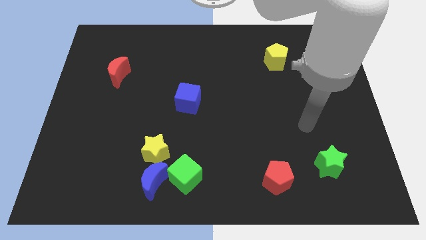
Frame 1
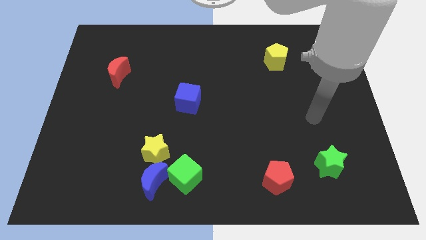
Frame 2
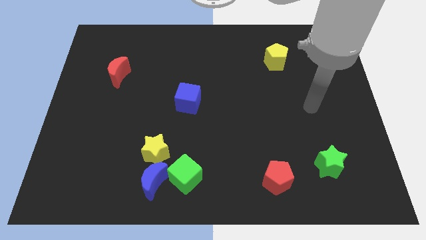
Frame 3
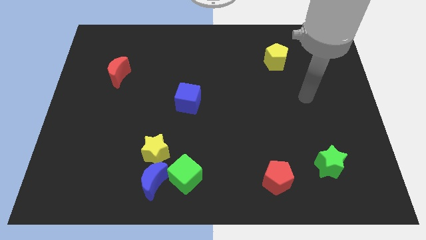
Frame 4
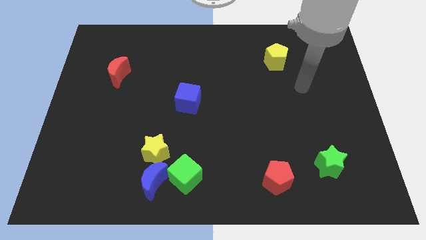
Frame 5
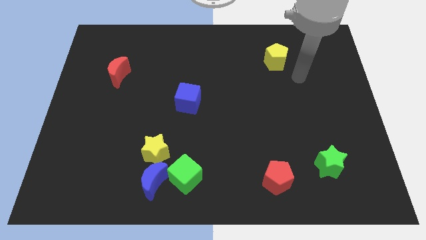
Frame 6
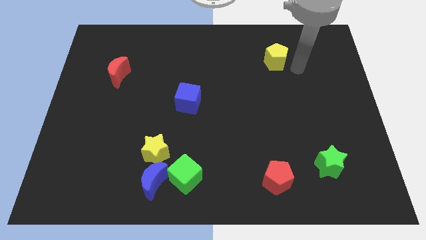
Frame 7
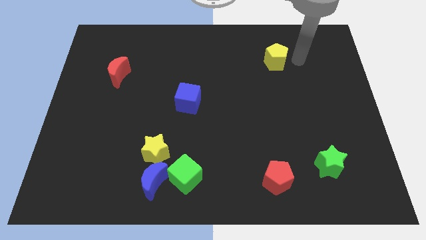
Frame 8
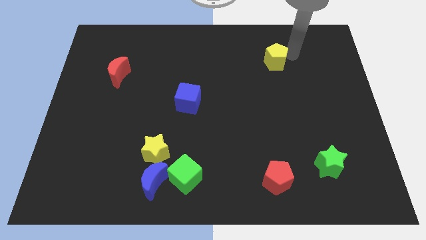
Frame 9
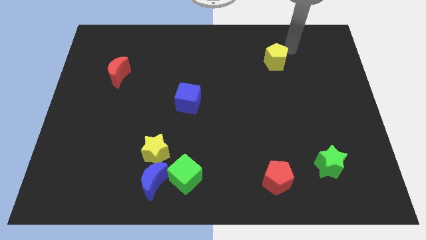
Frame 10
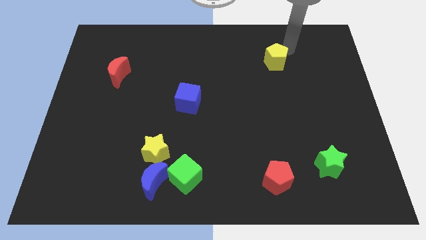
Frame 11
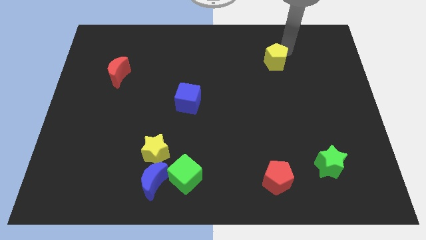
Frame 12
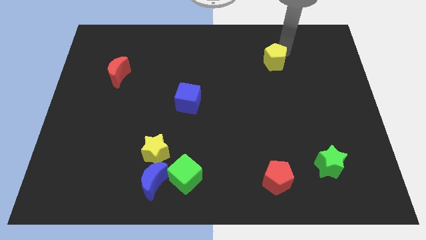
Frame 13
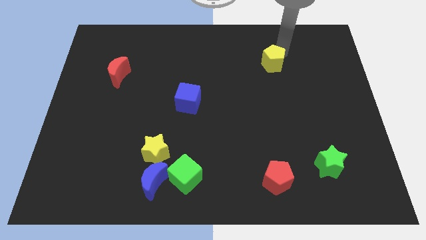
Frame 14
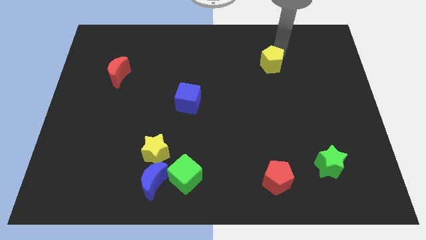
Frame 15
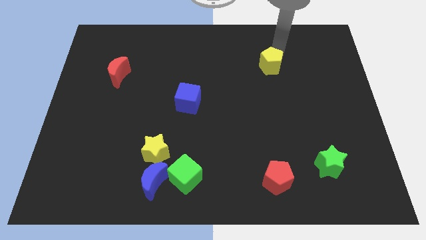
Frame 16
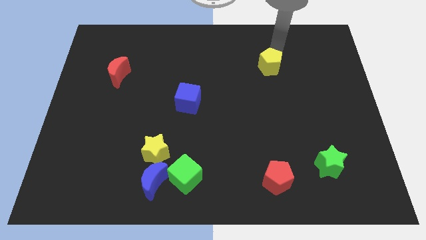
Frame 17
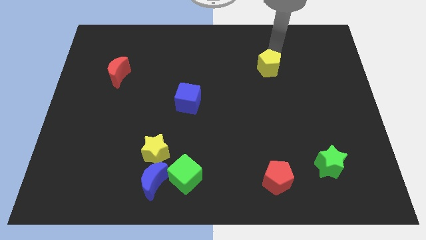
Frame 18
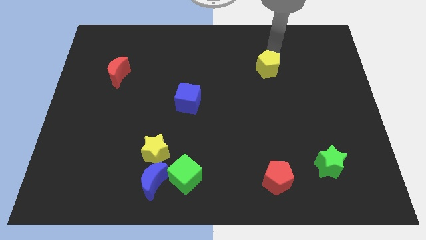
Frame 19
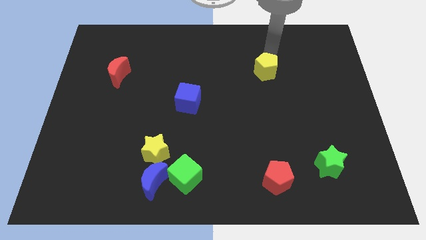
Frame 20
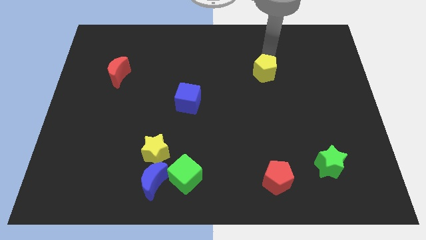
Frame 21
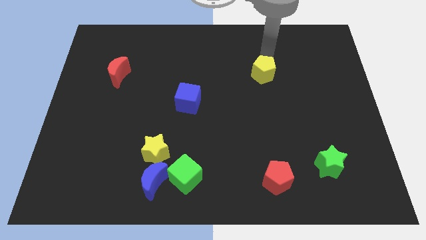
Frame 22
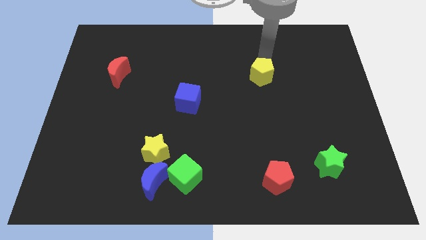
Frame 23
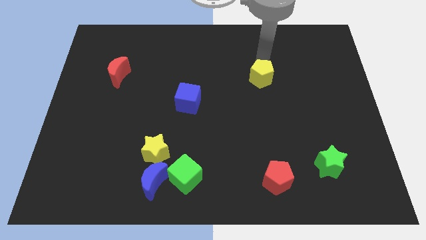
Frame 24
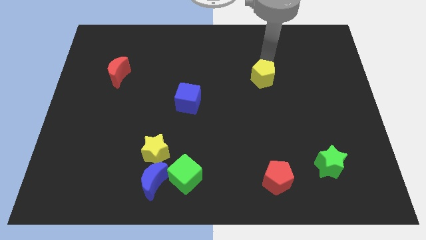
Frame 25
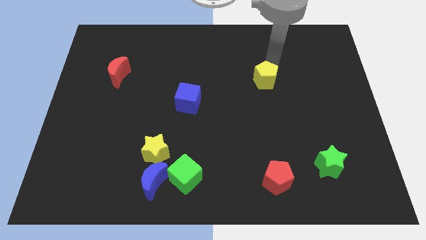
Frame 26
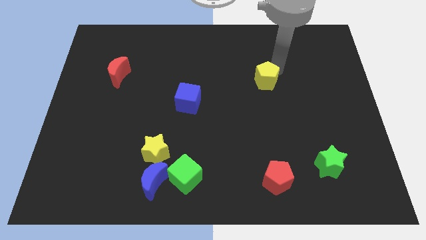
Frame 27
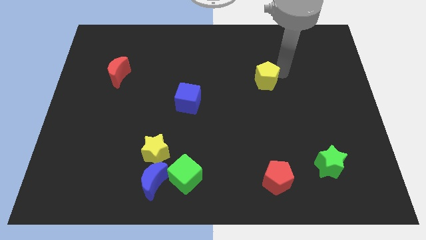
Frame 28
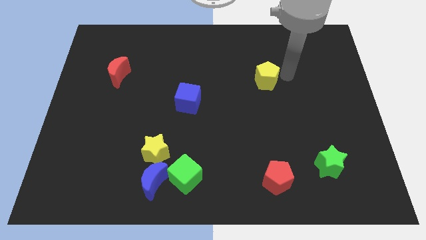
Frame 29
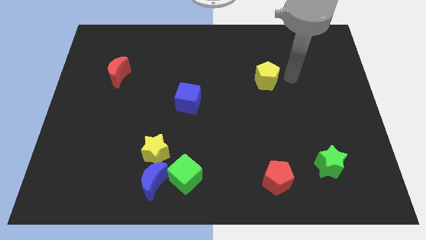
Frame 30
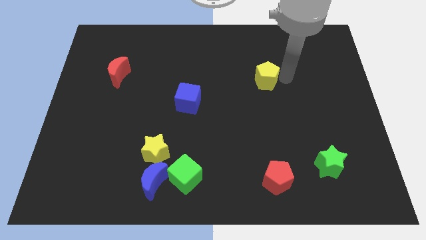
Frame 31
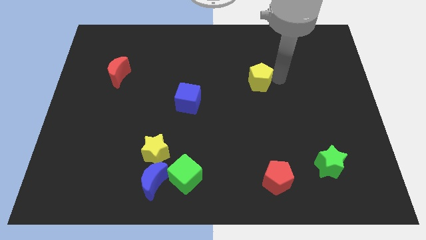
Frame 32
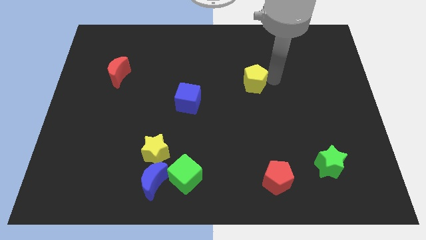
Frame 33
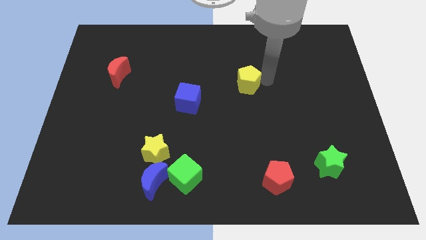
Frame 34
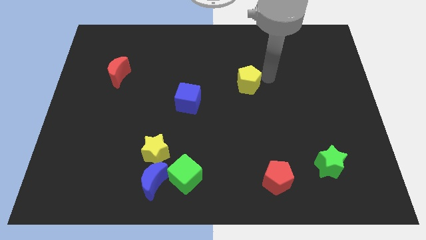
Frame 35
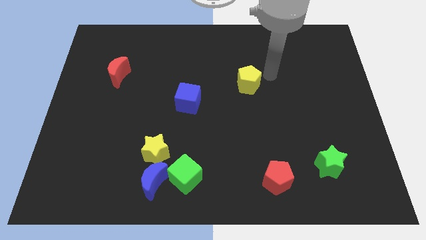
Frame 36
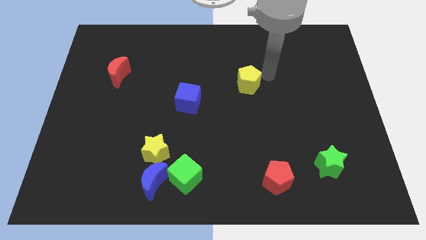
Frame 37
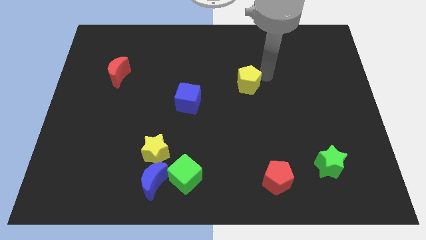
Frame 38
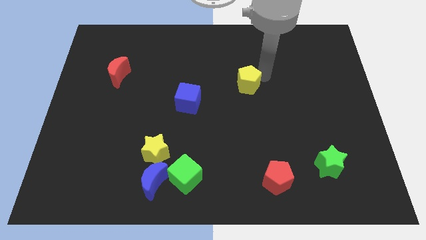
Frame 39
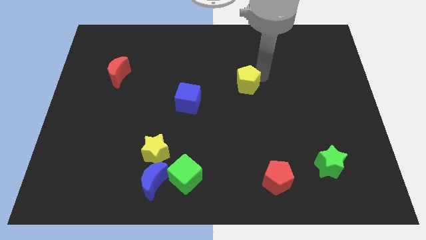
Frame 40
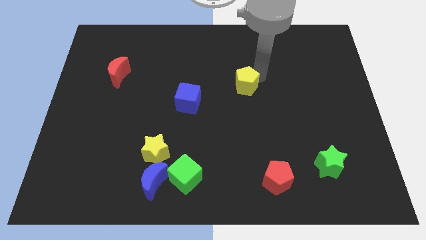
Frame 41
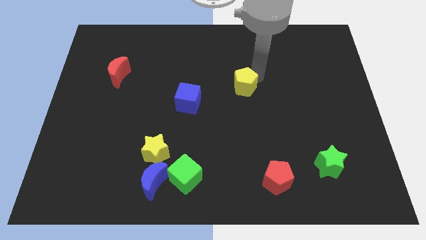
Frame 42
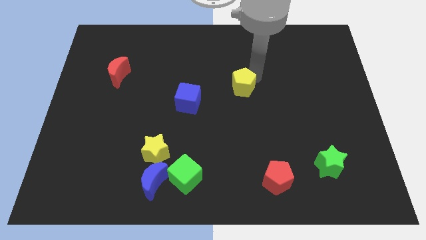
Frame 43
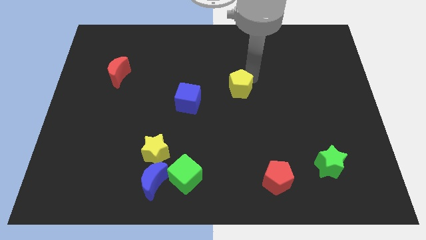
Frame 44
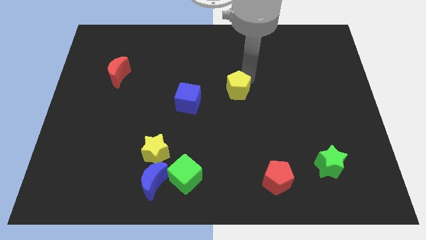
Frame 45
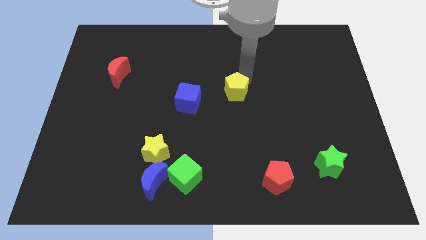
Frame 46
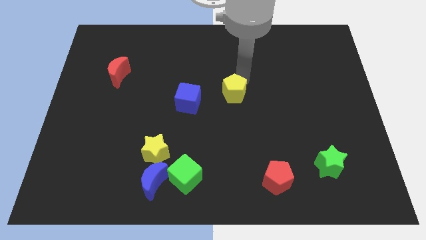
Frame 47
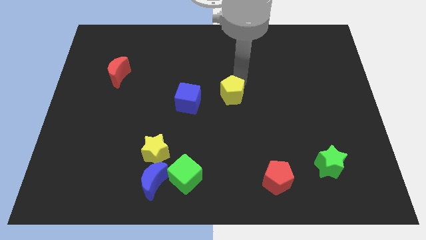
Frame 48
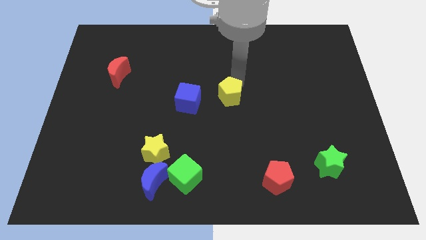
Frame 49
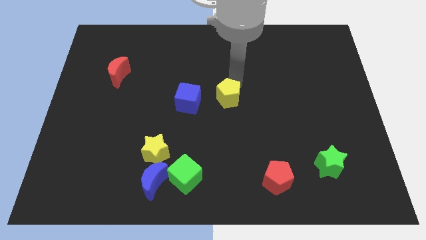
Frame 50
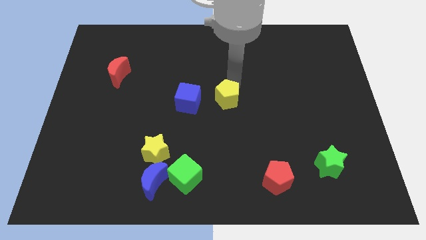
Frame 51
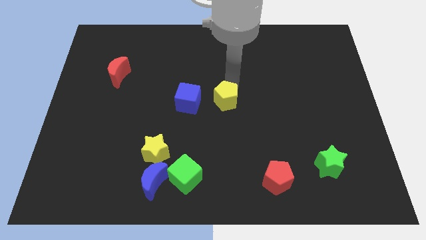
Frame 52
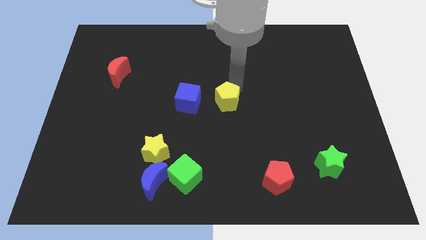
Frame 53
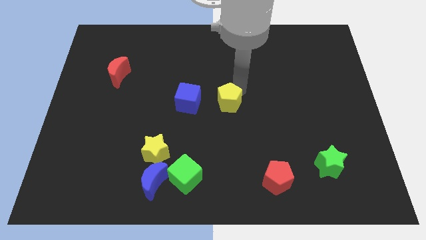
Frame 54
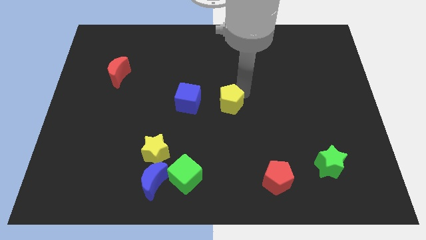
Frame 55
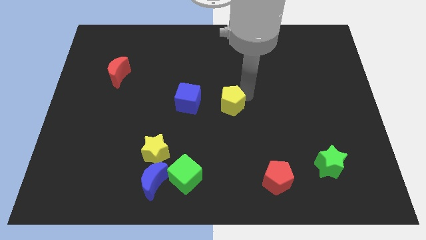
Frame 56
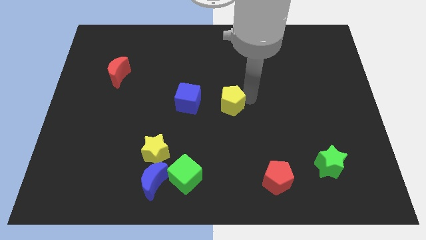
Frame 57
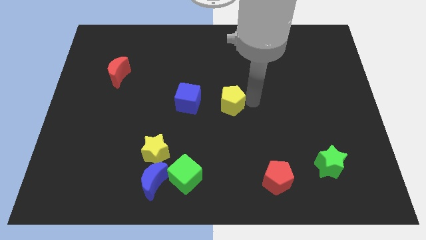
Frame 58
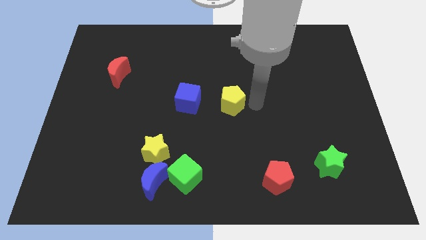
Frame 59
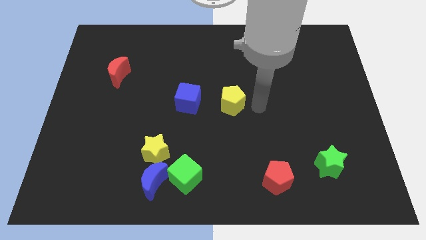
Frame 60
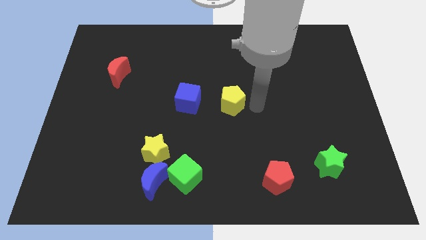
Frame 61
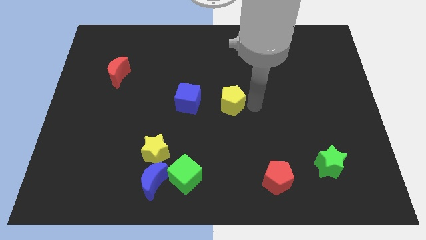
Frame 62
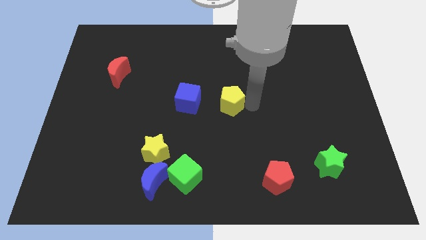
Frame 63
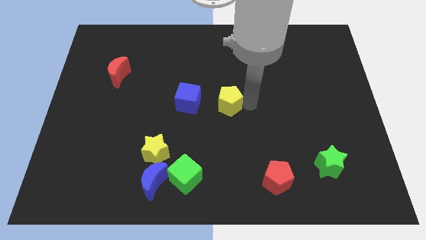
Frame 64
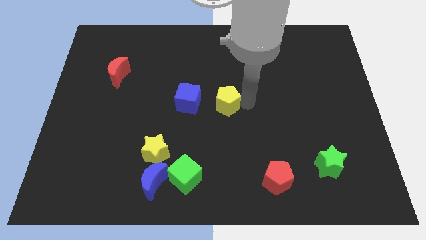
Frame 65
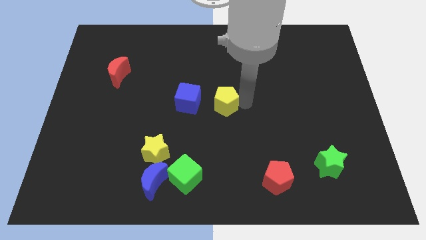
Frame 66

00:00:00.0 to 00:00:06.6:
slide the yellow pentagon down and left diagonally

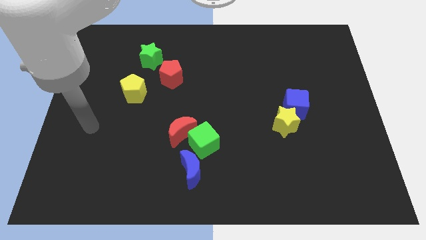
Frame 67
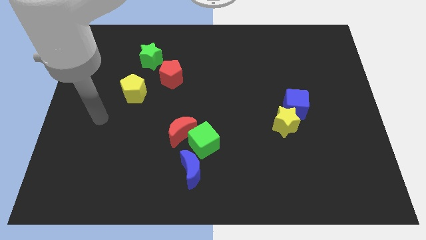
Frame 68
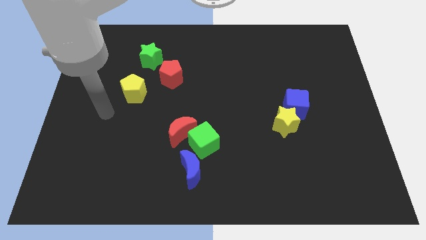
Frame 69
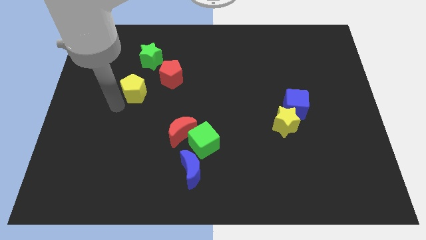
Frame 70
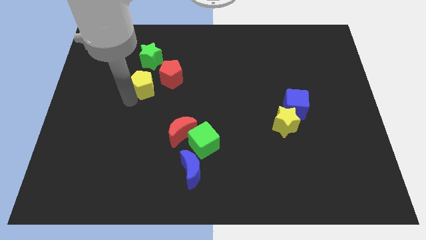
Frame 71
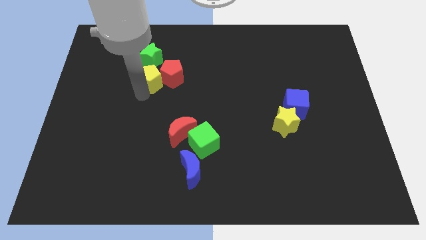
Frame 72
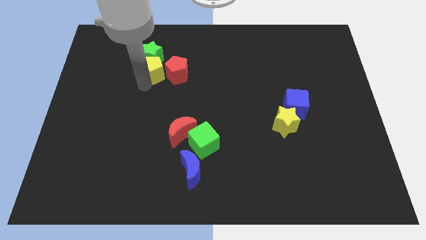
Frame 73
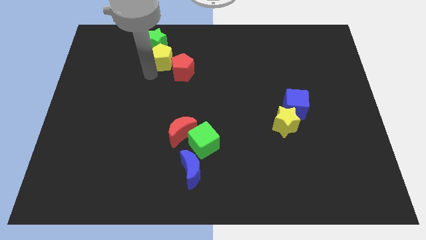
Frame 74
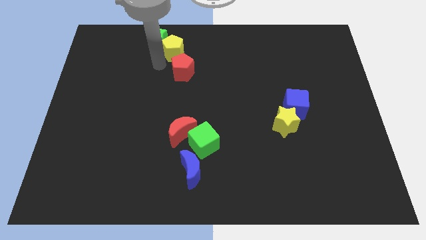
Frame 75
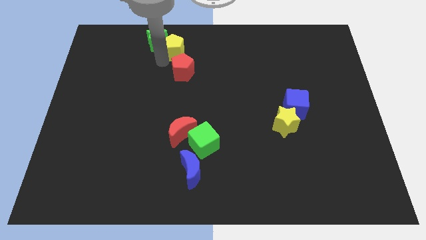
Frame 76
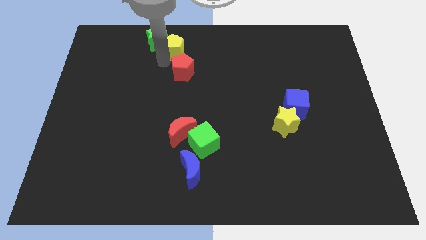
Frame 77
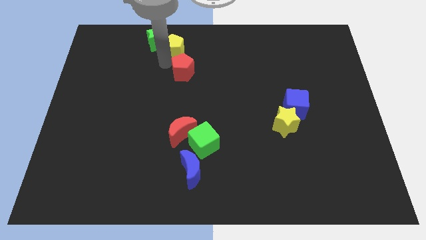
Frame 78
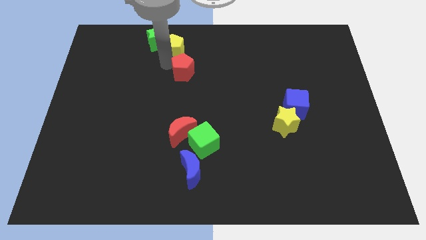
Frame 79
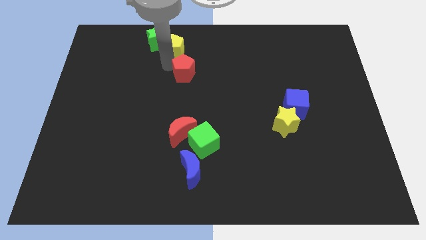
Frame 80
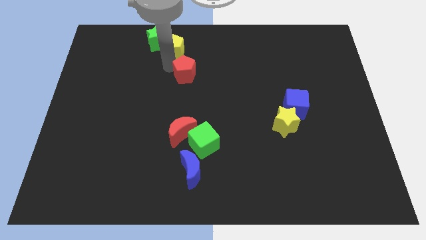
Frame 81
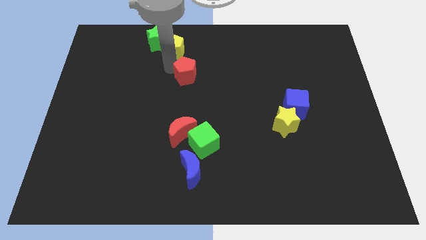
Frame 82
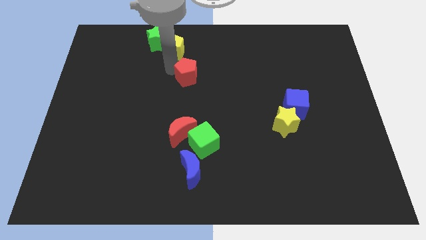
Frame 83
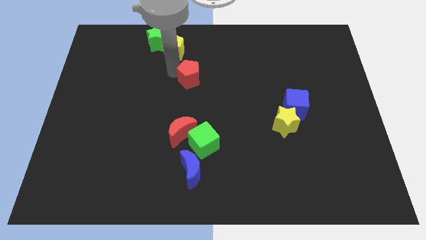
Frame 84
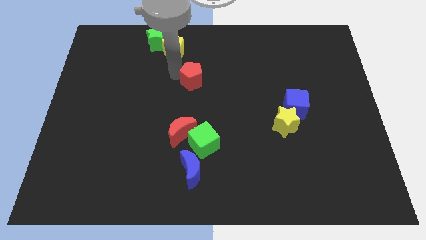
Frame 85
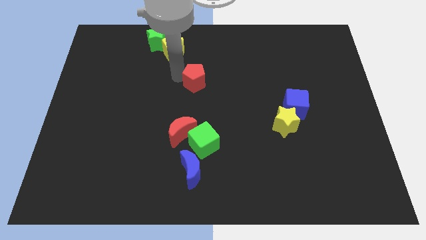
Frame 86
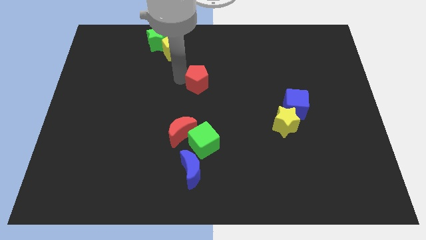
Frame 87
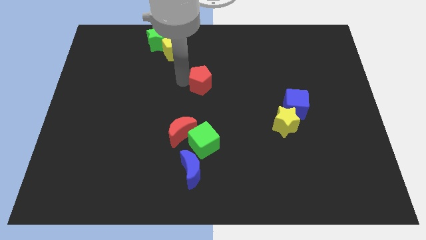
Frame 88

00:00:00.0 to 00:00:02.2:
slightly push the red pentagon right
